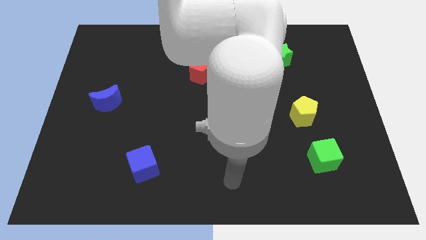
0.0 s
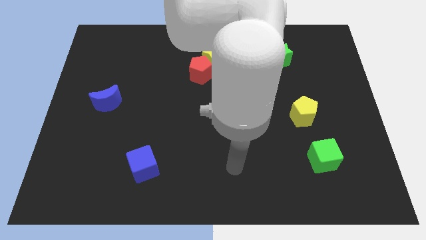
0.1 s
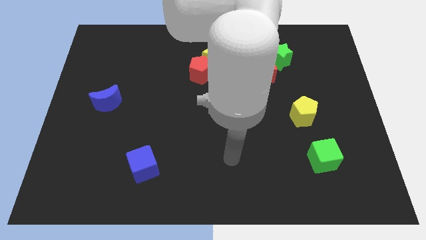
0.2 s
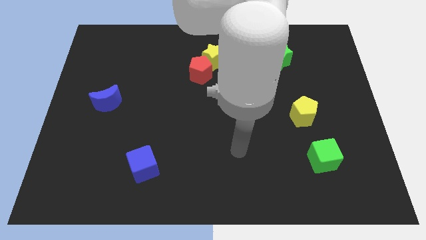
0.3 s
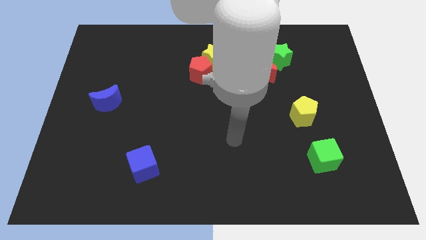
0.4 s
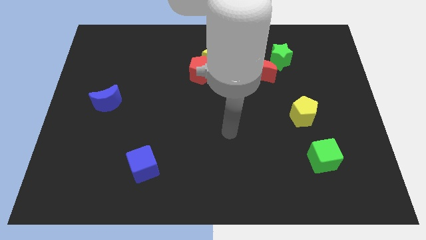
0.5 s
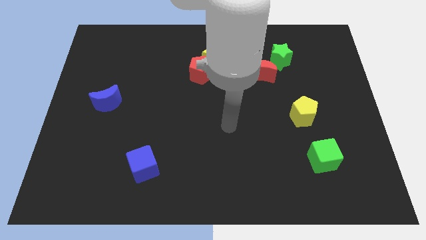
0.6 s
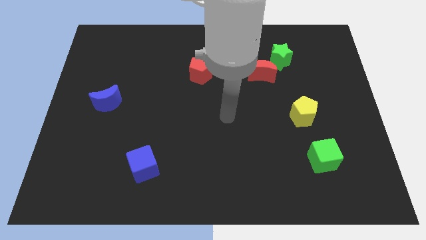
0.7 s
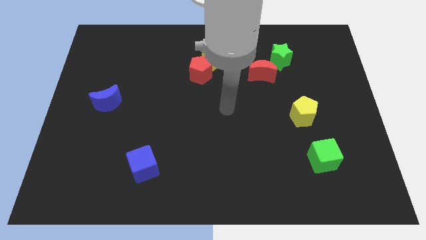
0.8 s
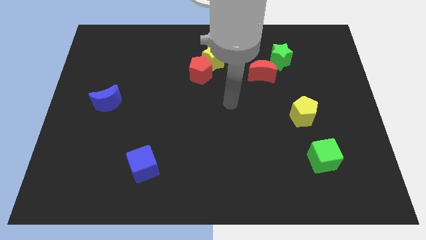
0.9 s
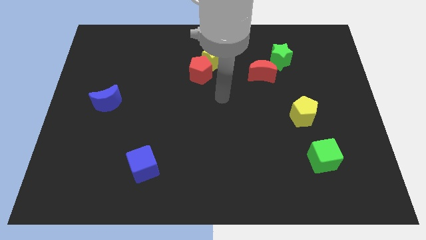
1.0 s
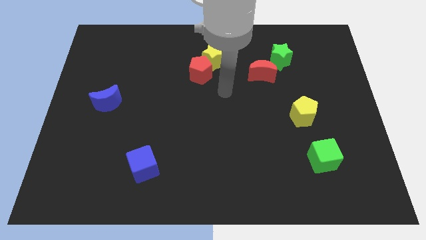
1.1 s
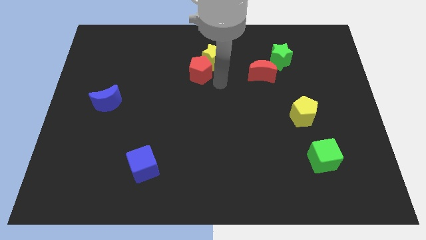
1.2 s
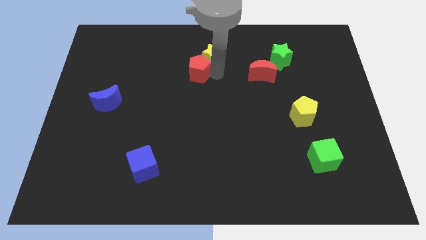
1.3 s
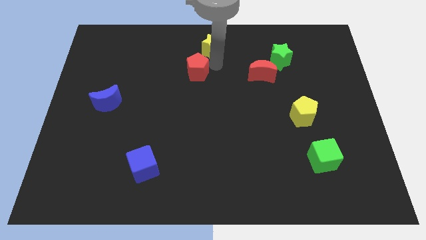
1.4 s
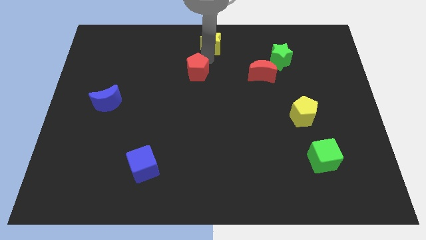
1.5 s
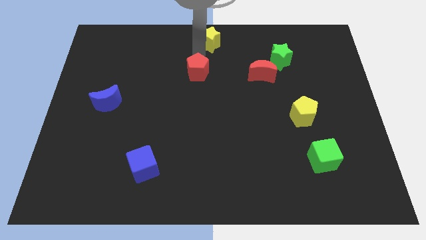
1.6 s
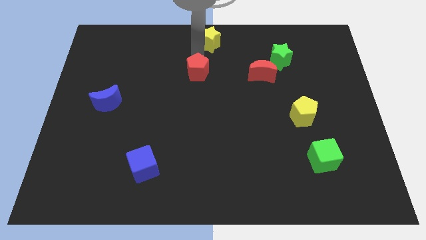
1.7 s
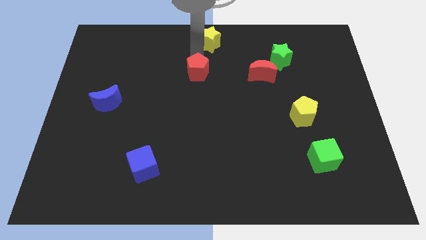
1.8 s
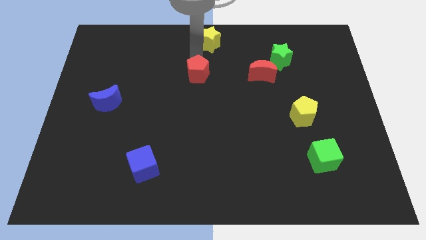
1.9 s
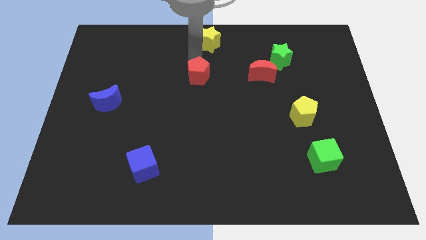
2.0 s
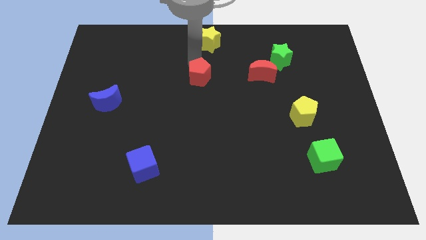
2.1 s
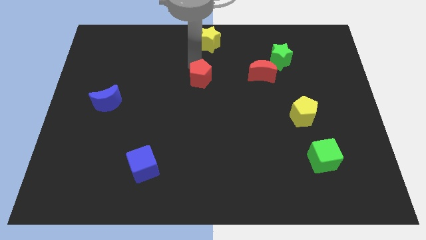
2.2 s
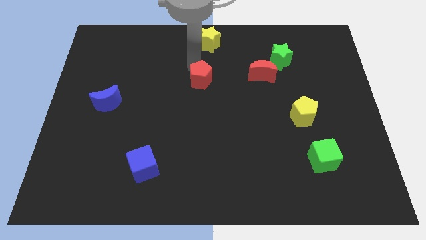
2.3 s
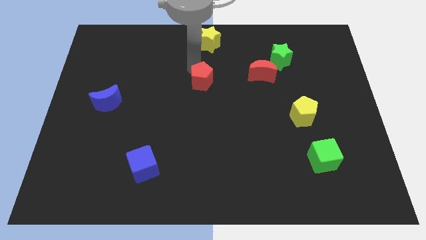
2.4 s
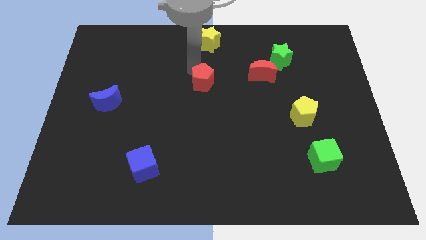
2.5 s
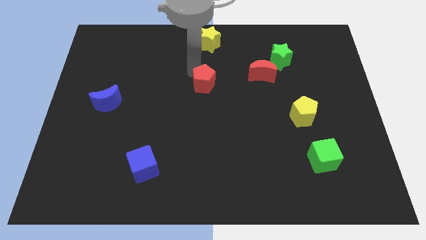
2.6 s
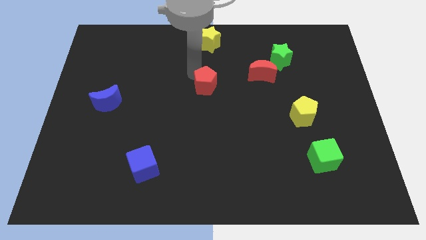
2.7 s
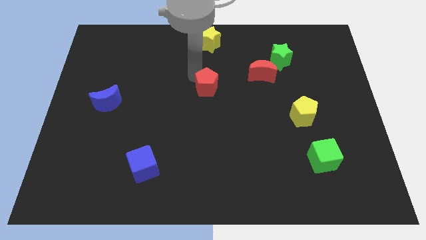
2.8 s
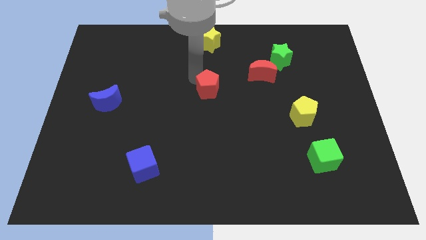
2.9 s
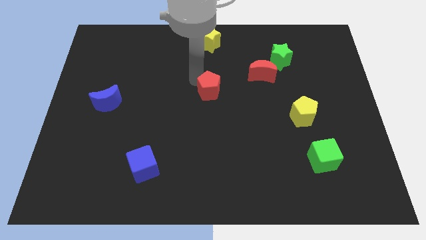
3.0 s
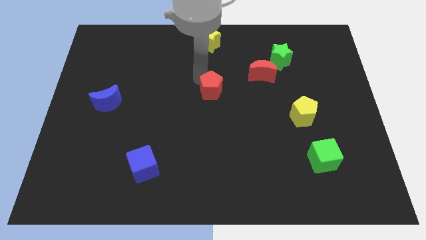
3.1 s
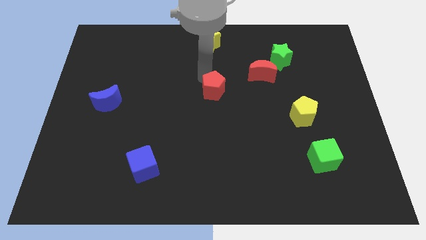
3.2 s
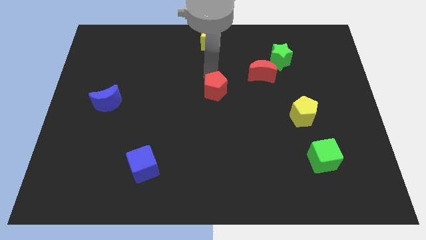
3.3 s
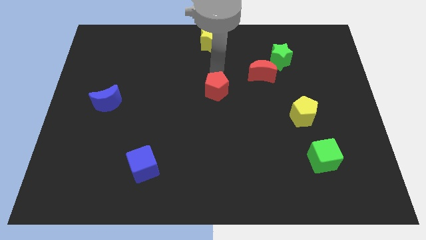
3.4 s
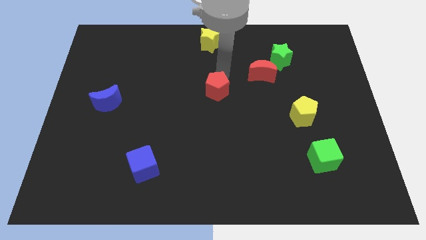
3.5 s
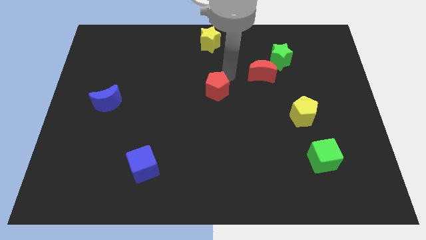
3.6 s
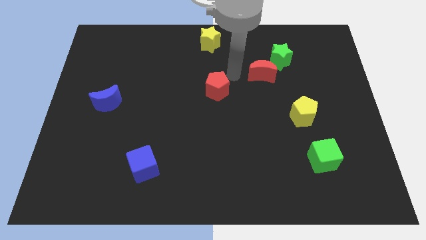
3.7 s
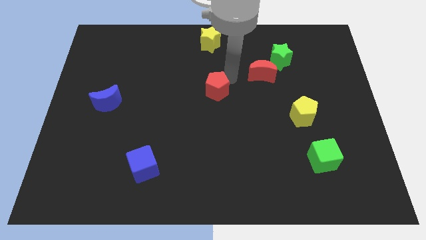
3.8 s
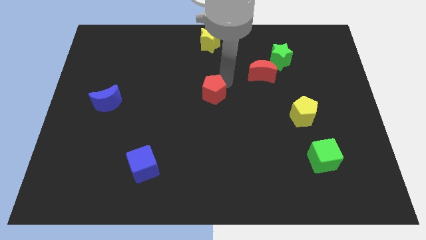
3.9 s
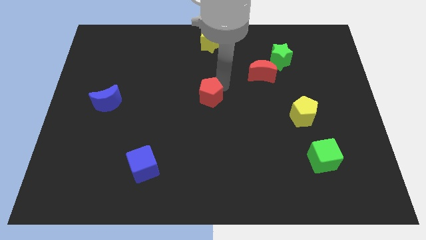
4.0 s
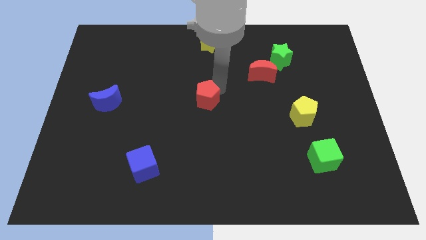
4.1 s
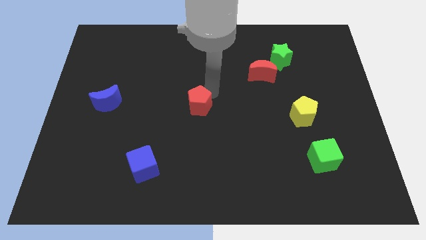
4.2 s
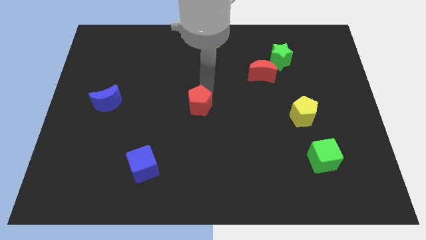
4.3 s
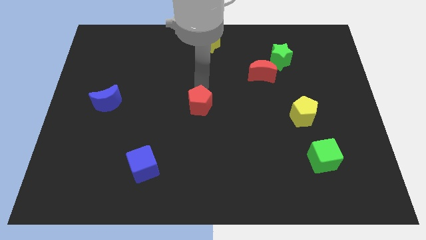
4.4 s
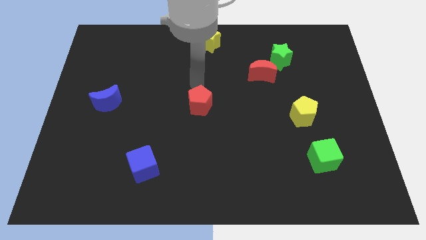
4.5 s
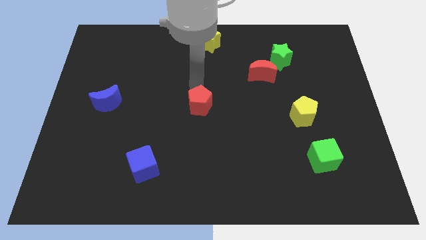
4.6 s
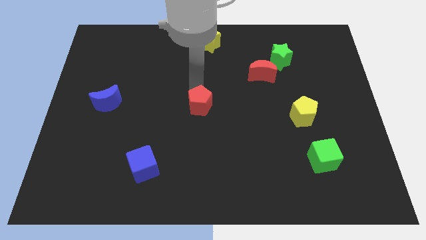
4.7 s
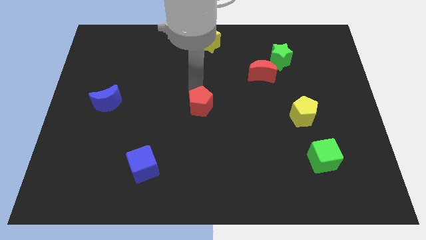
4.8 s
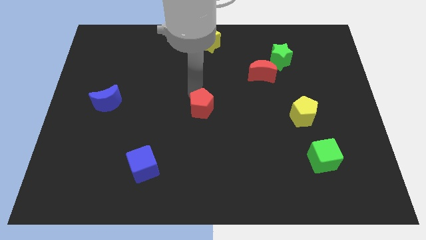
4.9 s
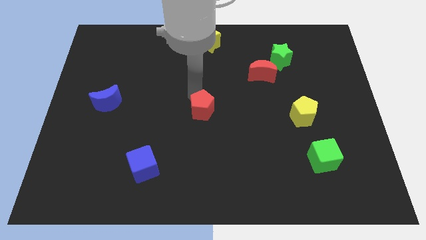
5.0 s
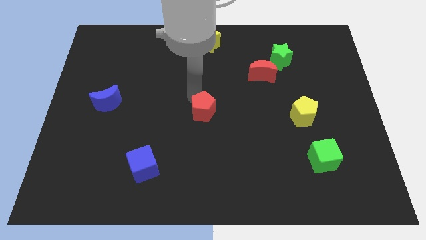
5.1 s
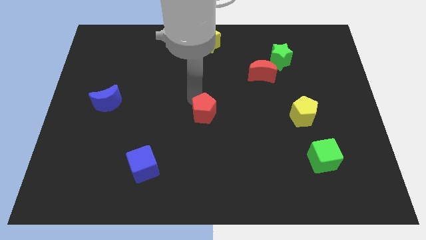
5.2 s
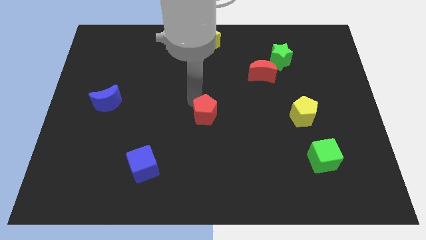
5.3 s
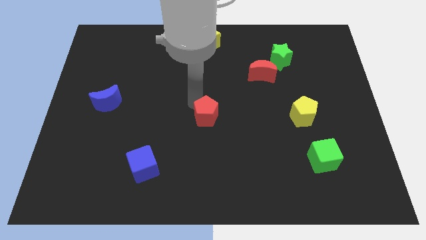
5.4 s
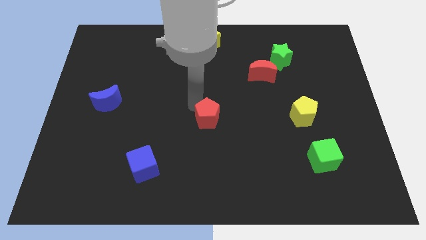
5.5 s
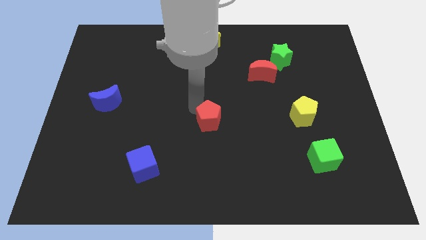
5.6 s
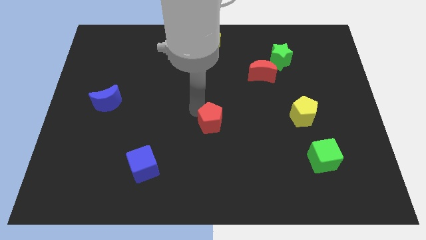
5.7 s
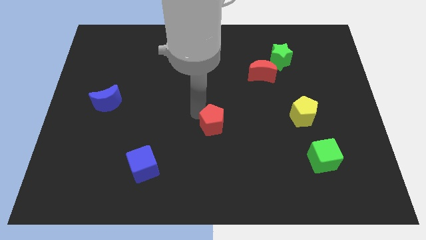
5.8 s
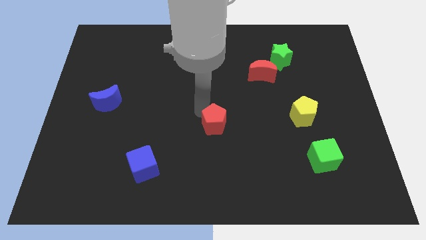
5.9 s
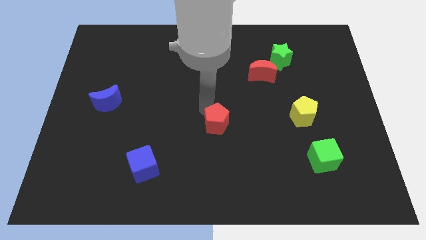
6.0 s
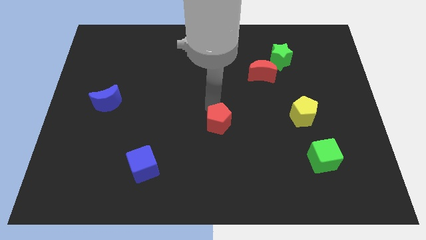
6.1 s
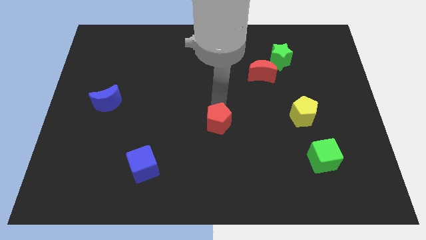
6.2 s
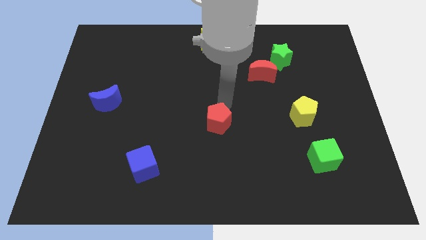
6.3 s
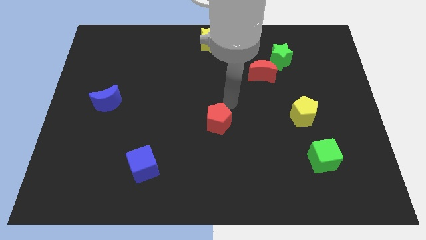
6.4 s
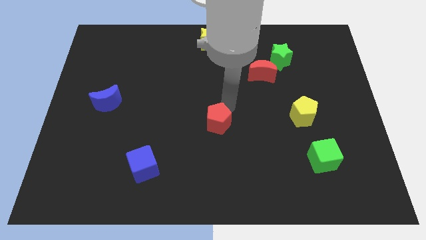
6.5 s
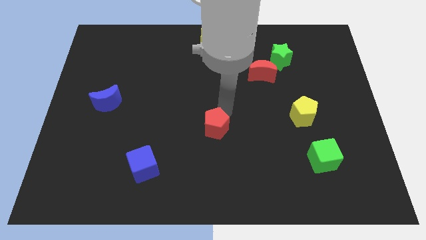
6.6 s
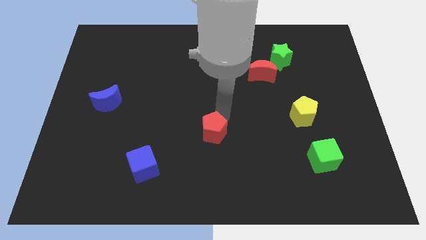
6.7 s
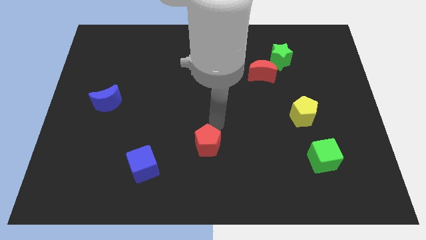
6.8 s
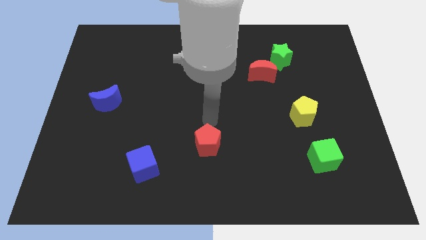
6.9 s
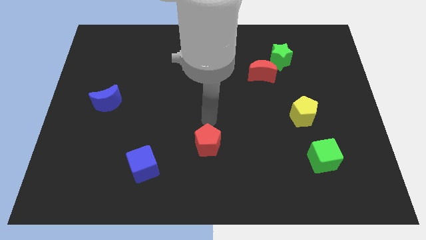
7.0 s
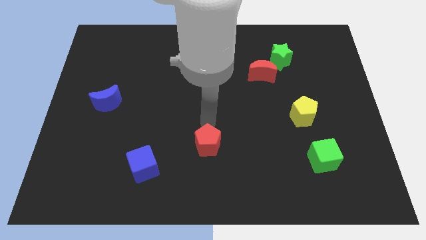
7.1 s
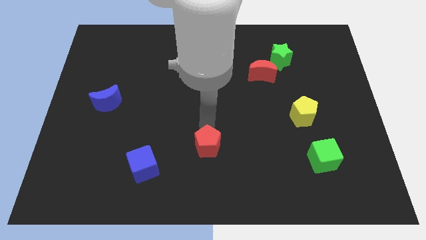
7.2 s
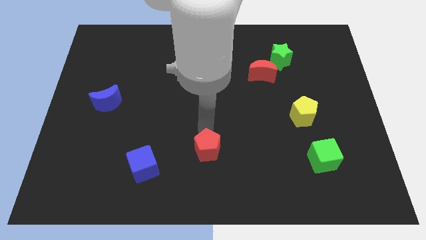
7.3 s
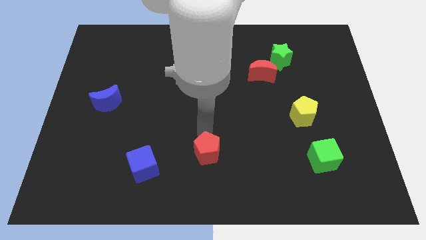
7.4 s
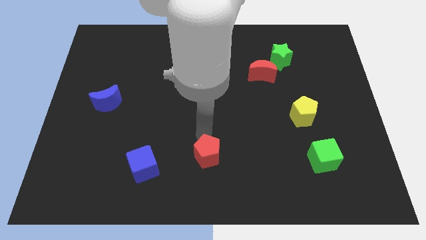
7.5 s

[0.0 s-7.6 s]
slide the red pentagon to the bottom
